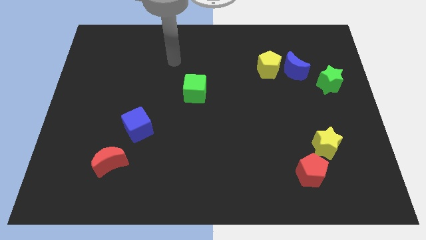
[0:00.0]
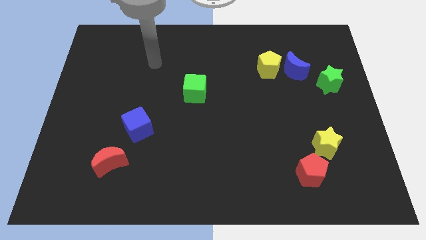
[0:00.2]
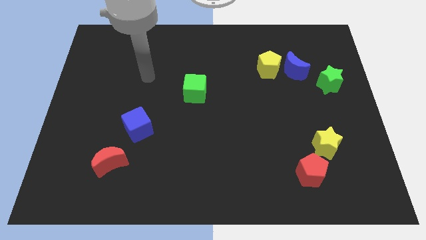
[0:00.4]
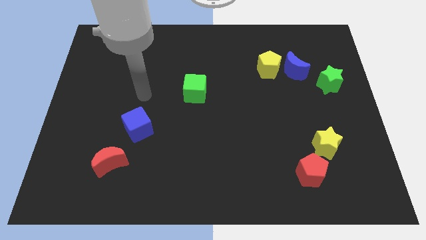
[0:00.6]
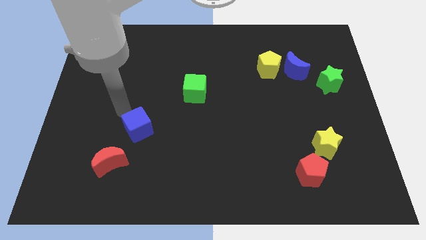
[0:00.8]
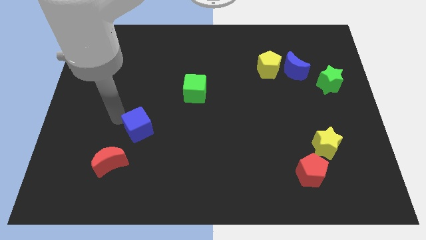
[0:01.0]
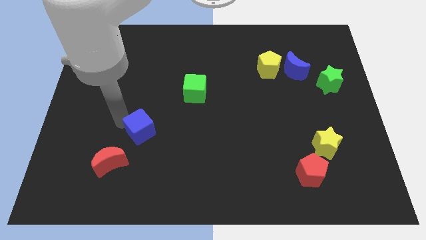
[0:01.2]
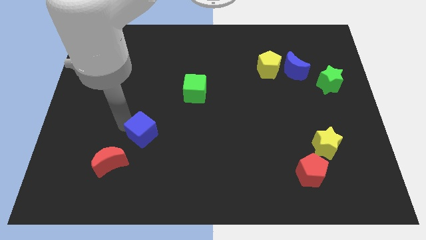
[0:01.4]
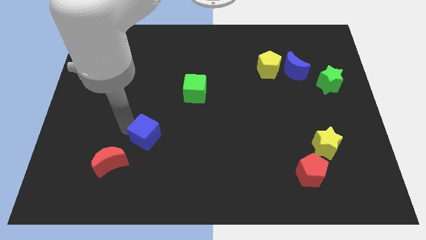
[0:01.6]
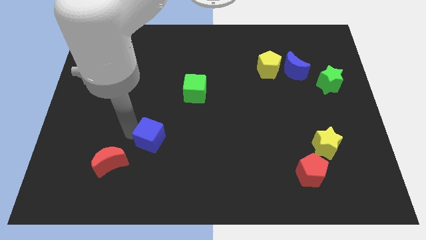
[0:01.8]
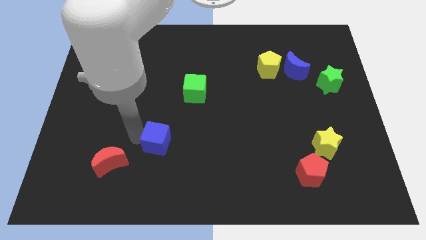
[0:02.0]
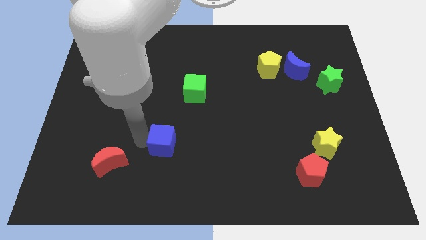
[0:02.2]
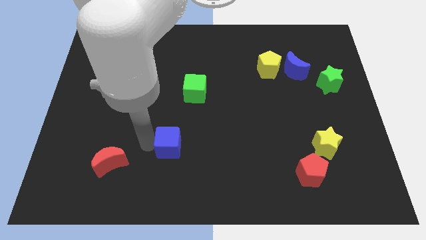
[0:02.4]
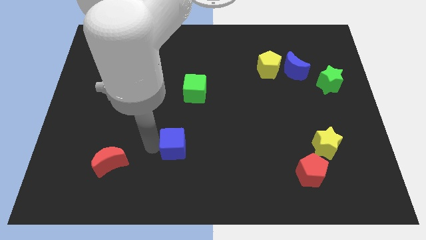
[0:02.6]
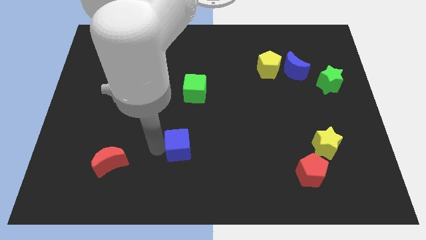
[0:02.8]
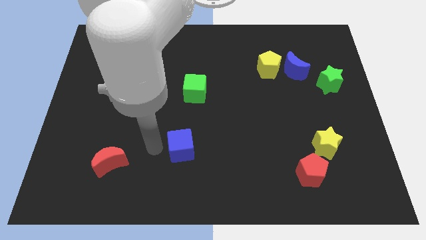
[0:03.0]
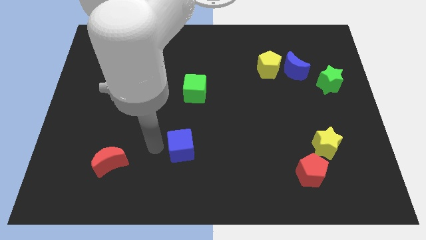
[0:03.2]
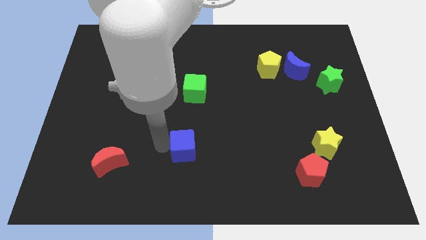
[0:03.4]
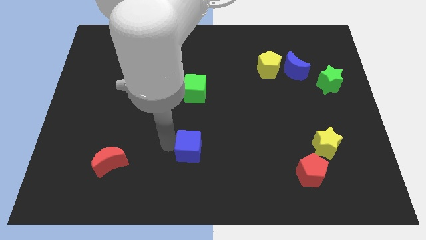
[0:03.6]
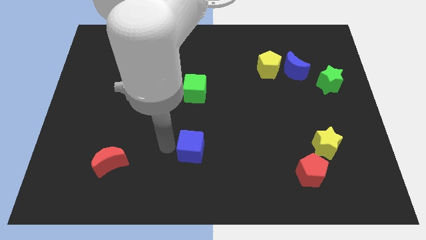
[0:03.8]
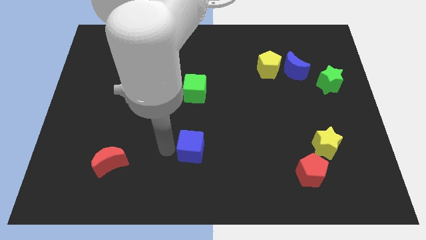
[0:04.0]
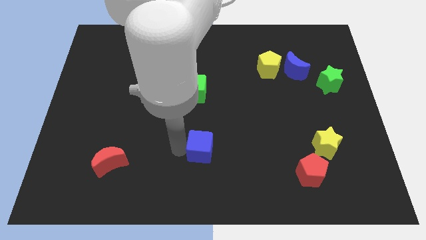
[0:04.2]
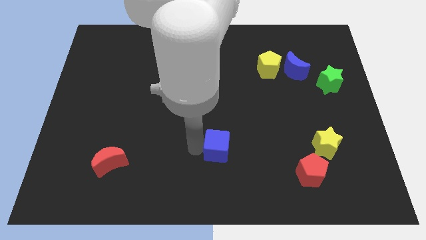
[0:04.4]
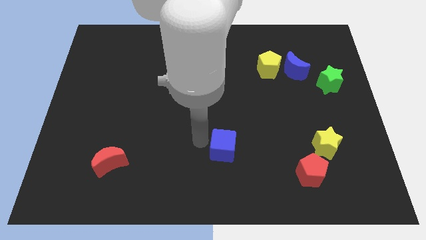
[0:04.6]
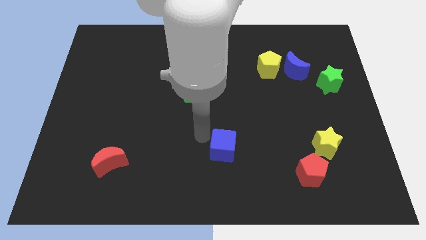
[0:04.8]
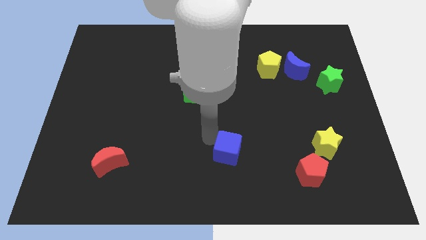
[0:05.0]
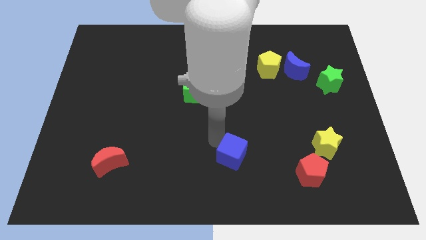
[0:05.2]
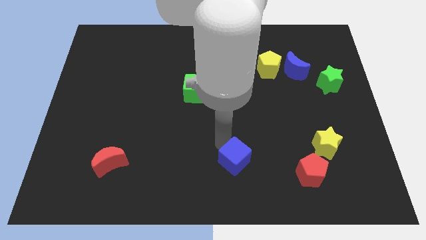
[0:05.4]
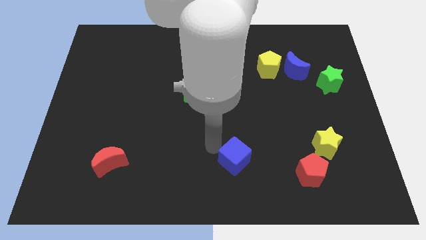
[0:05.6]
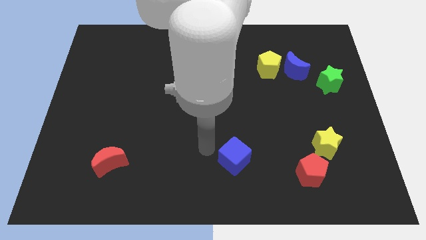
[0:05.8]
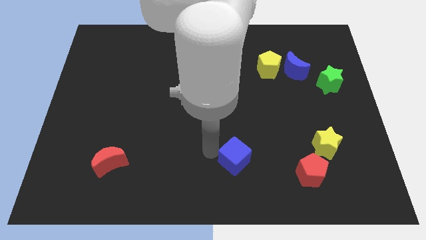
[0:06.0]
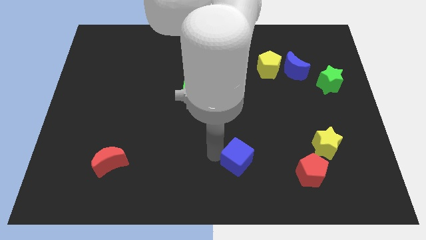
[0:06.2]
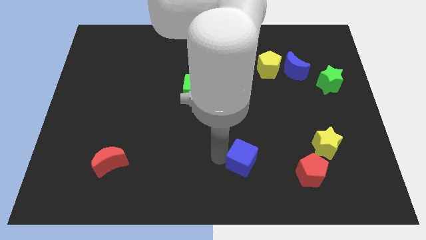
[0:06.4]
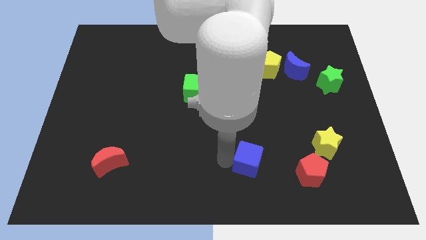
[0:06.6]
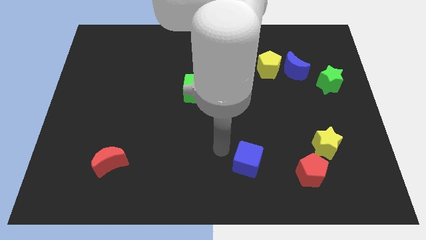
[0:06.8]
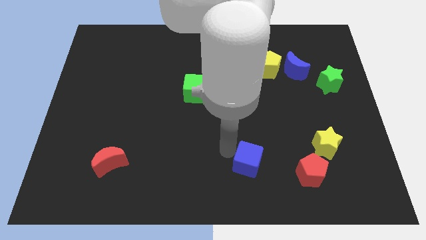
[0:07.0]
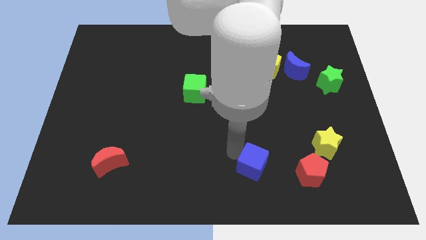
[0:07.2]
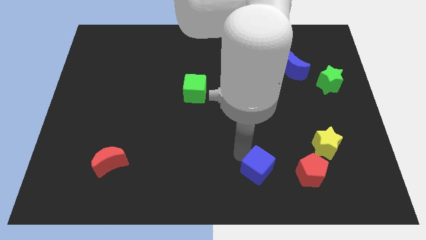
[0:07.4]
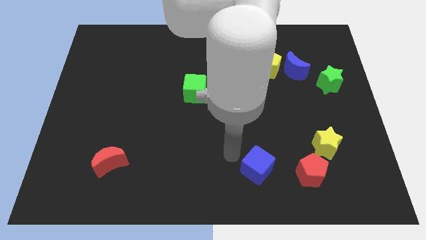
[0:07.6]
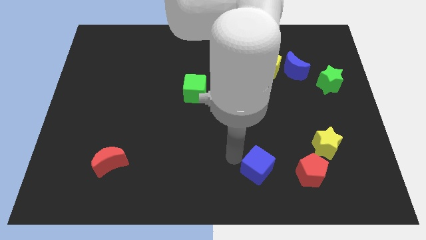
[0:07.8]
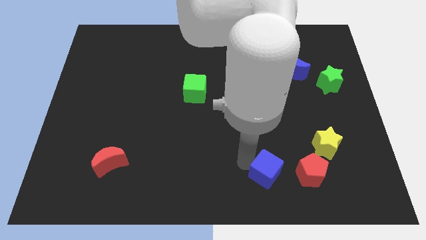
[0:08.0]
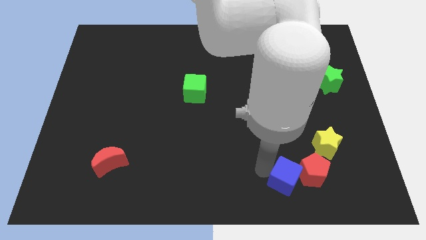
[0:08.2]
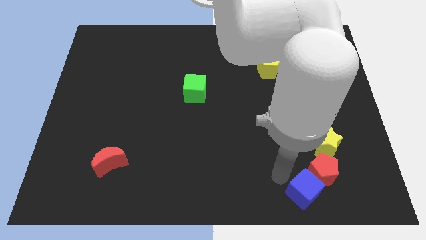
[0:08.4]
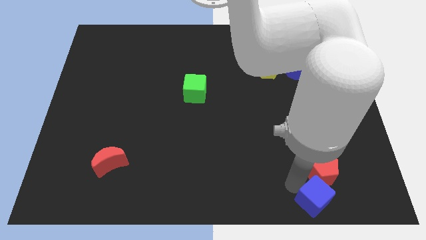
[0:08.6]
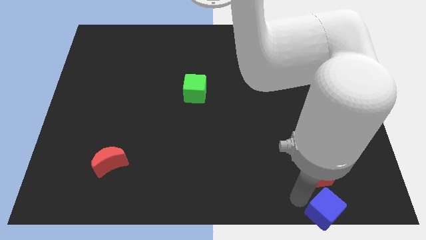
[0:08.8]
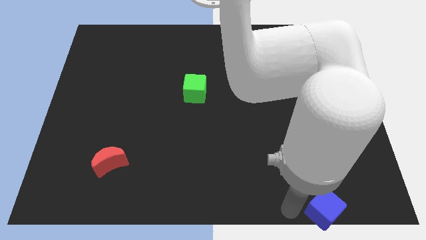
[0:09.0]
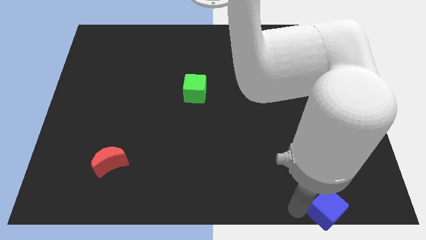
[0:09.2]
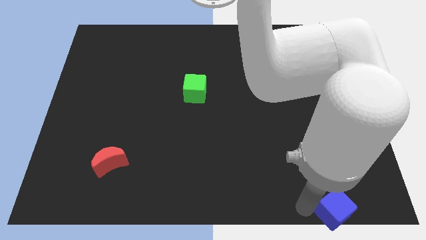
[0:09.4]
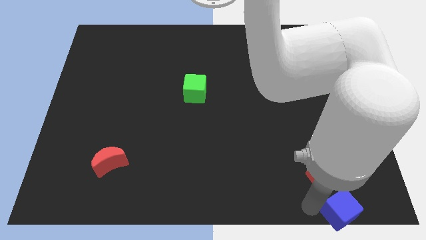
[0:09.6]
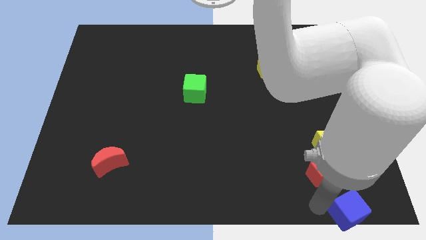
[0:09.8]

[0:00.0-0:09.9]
slide the blue cube to the bottom right corner

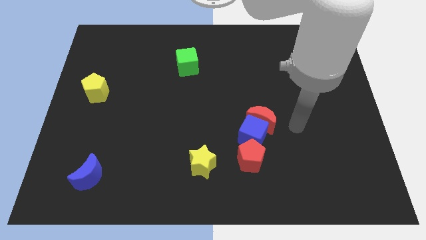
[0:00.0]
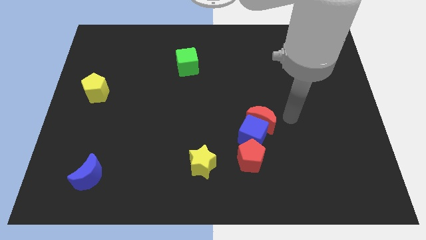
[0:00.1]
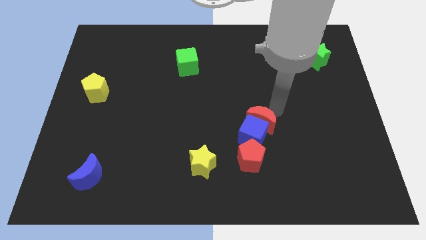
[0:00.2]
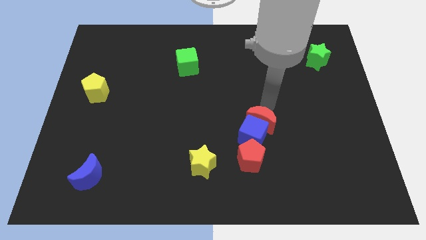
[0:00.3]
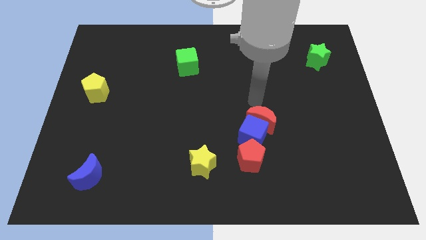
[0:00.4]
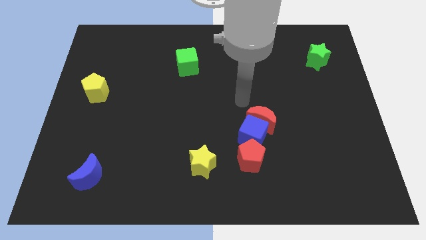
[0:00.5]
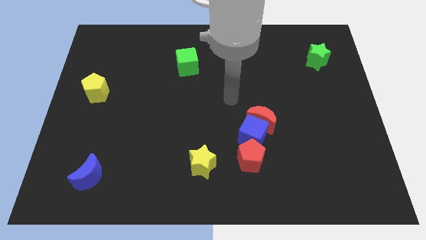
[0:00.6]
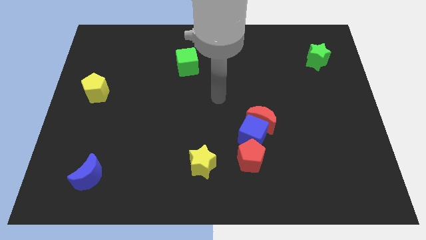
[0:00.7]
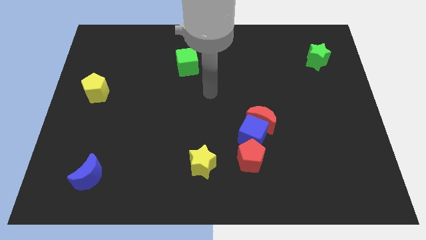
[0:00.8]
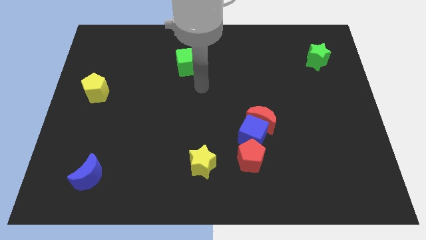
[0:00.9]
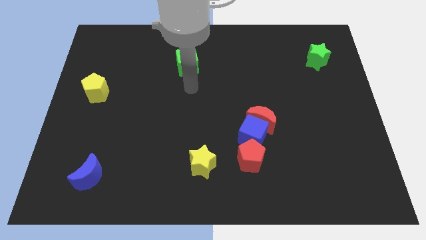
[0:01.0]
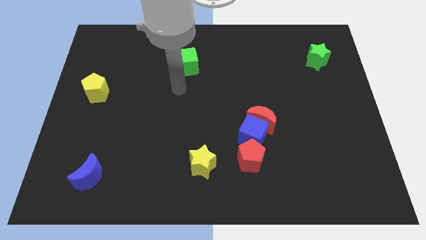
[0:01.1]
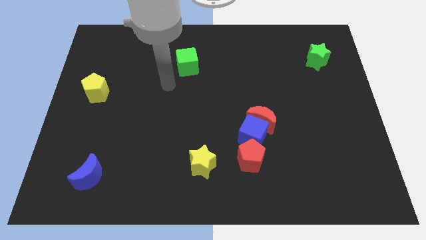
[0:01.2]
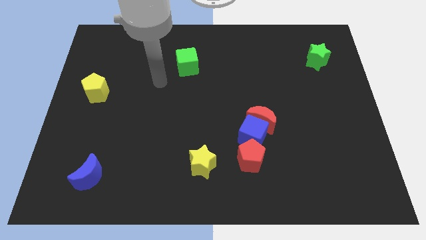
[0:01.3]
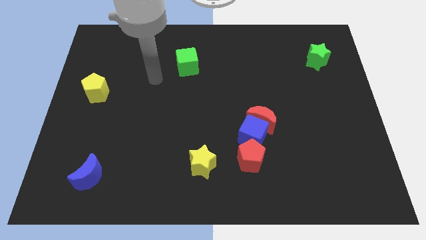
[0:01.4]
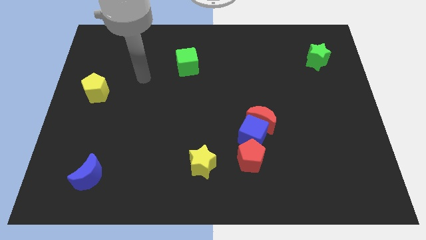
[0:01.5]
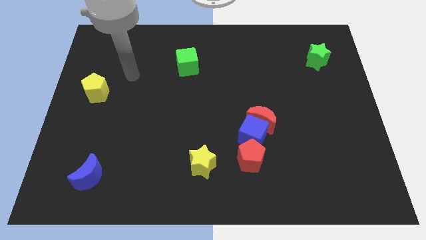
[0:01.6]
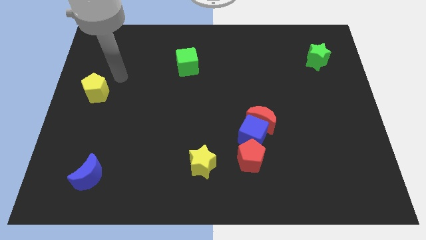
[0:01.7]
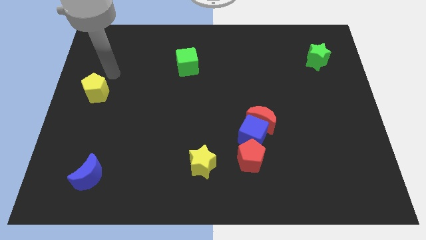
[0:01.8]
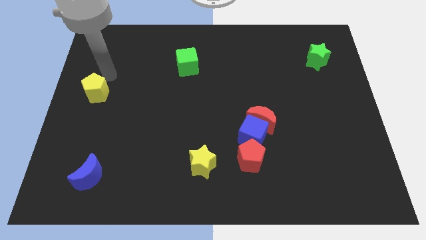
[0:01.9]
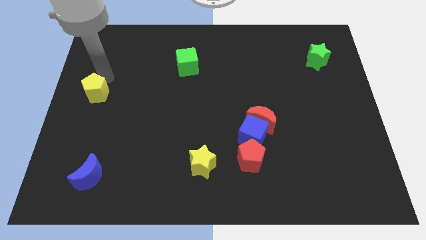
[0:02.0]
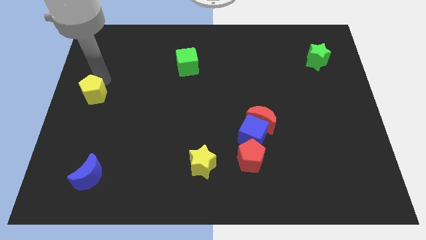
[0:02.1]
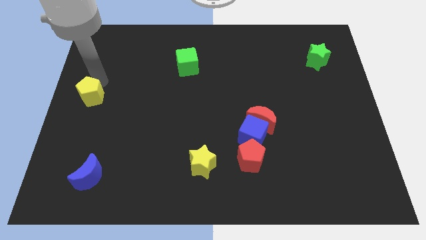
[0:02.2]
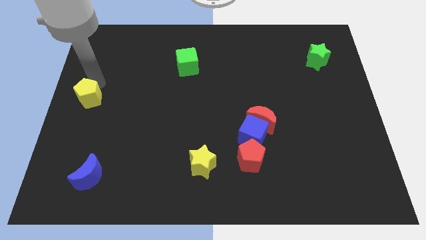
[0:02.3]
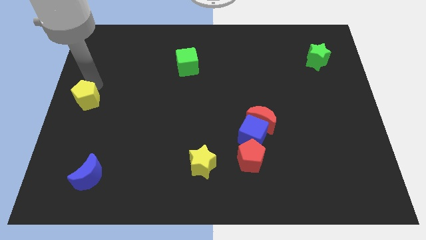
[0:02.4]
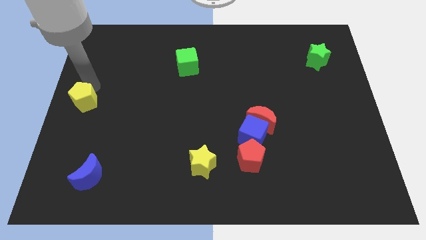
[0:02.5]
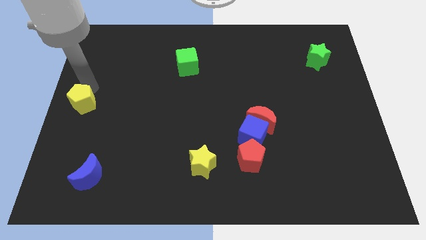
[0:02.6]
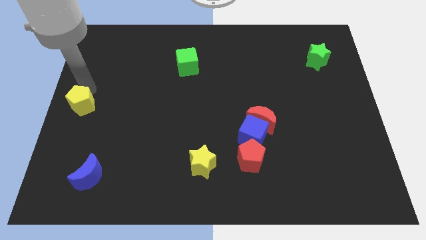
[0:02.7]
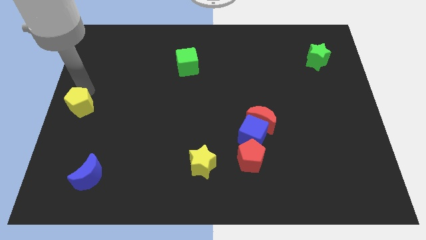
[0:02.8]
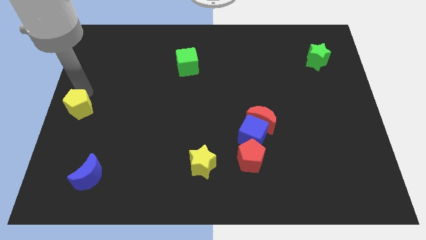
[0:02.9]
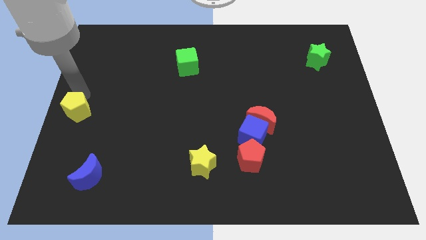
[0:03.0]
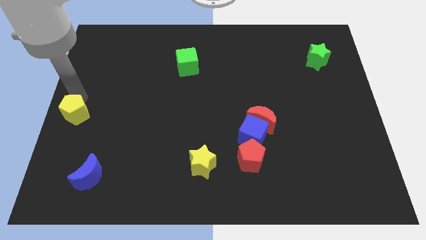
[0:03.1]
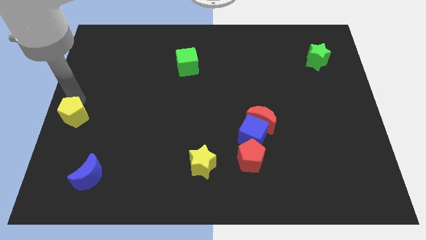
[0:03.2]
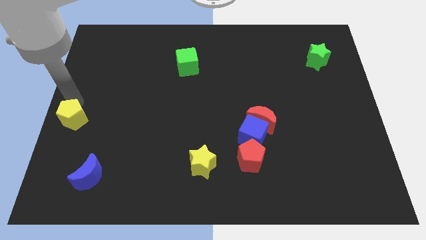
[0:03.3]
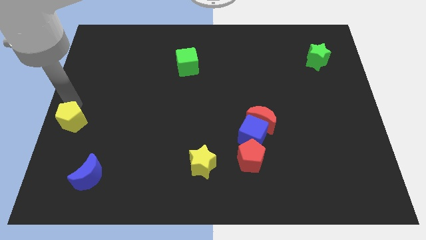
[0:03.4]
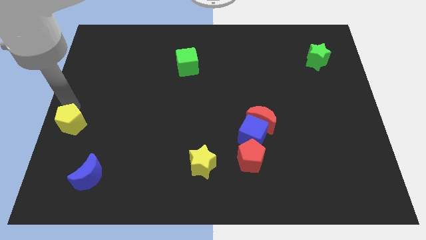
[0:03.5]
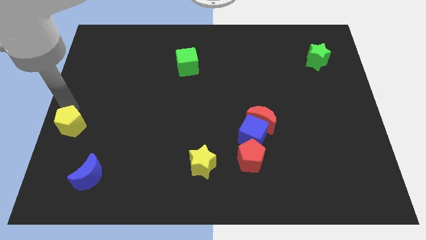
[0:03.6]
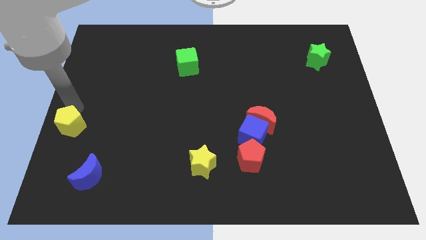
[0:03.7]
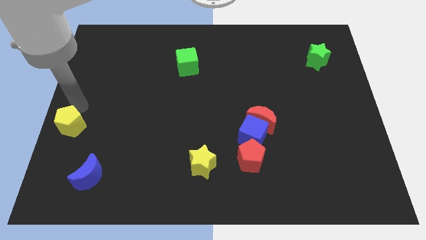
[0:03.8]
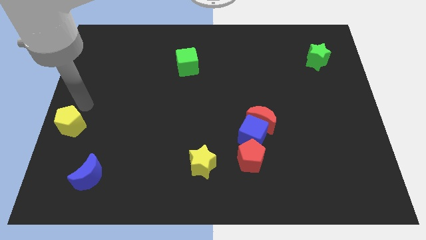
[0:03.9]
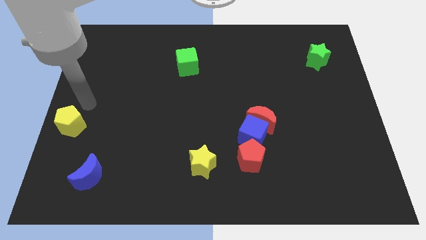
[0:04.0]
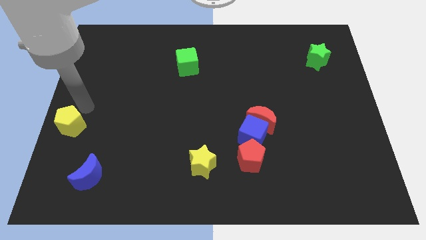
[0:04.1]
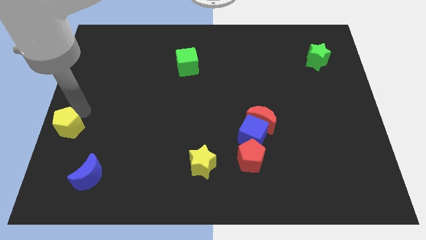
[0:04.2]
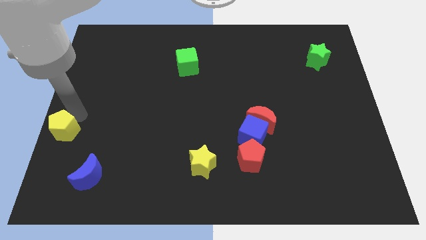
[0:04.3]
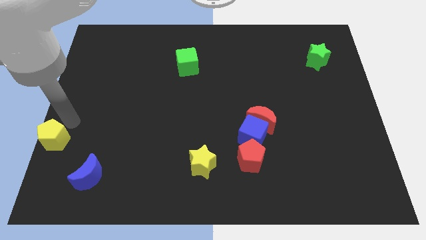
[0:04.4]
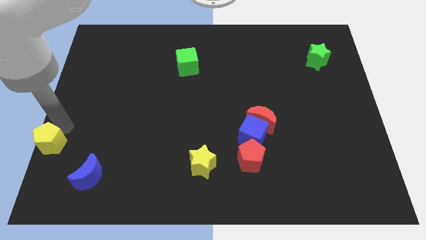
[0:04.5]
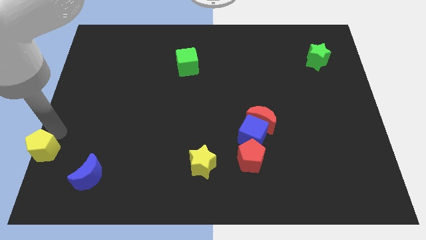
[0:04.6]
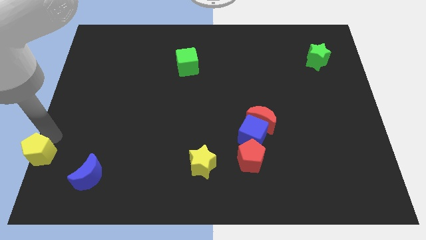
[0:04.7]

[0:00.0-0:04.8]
push the yellow pentagon to the bottom left of the board
